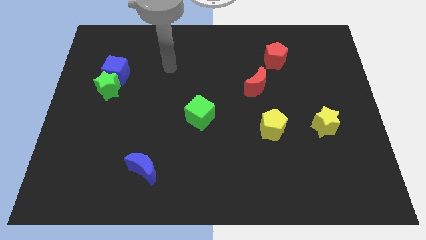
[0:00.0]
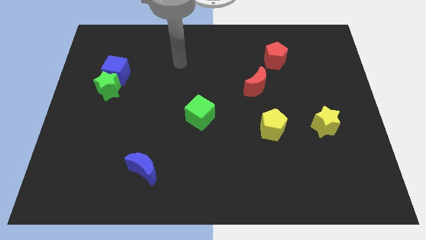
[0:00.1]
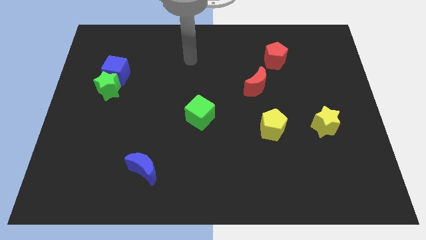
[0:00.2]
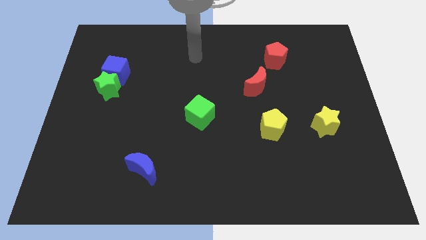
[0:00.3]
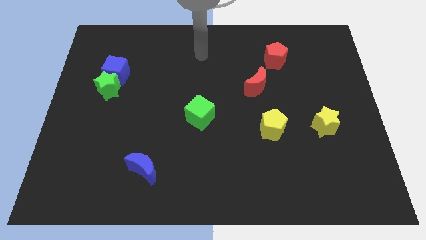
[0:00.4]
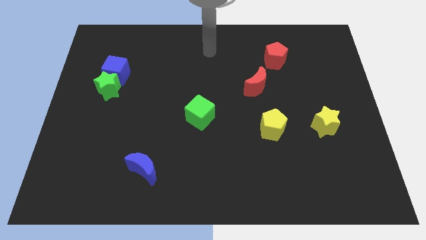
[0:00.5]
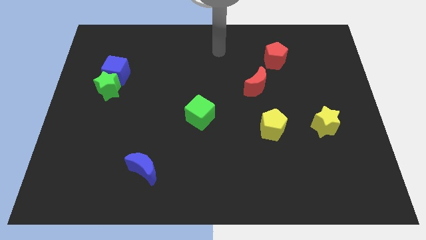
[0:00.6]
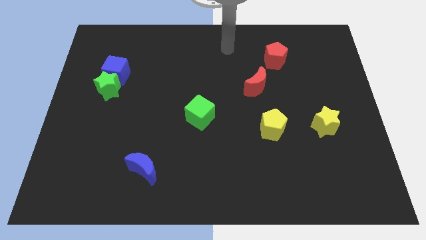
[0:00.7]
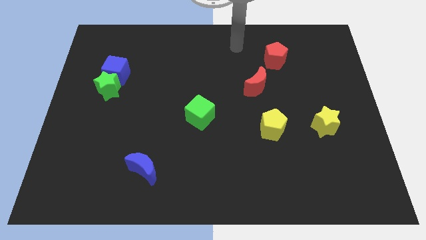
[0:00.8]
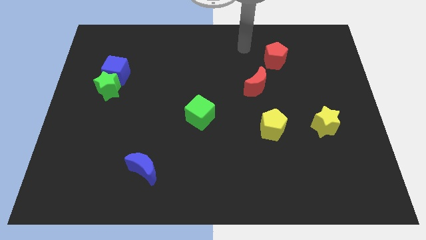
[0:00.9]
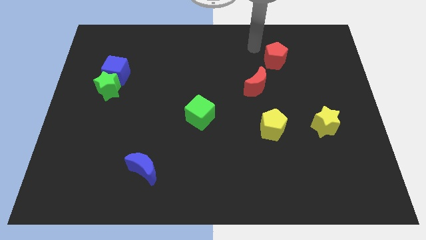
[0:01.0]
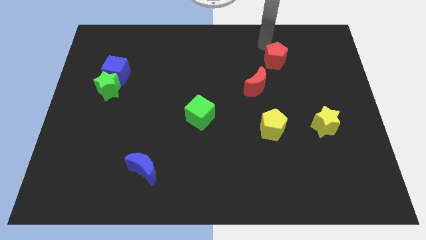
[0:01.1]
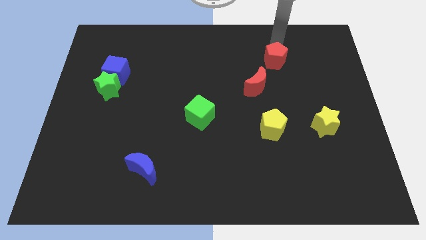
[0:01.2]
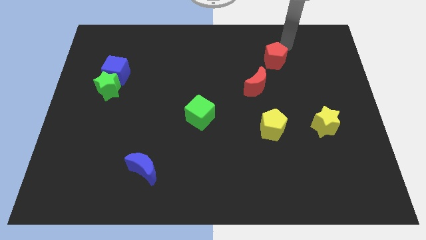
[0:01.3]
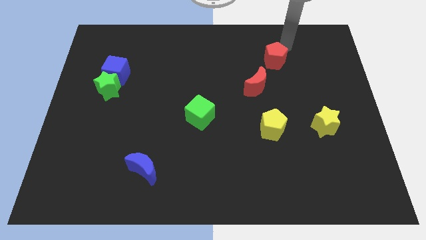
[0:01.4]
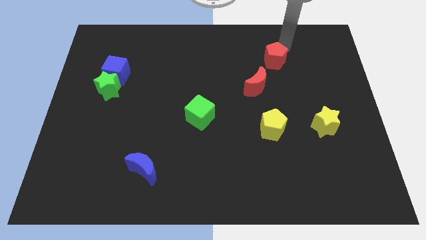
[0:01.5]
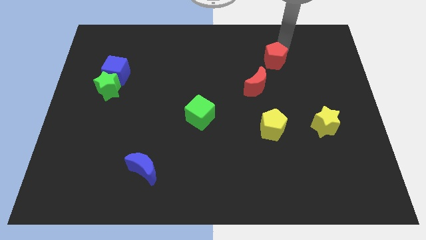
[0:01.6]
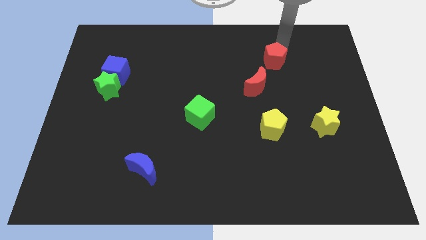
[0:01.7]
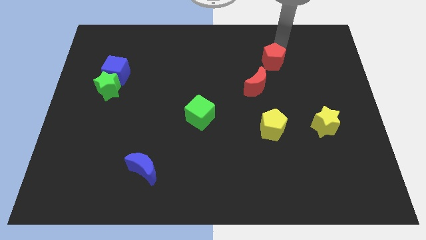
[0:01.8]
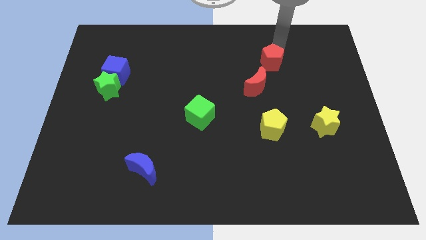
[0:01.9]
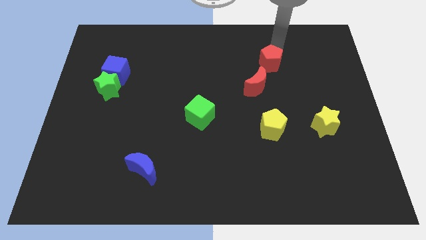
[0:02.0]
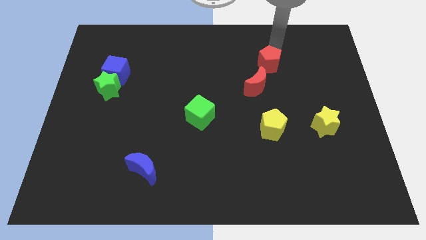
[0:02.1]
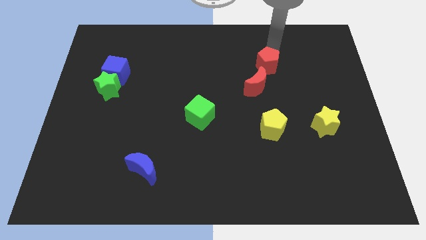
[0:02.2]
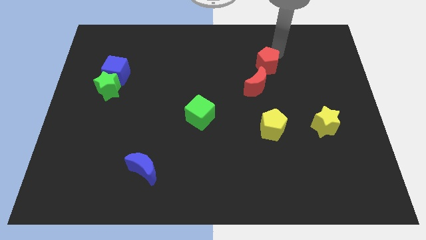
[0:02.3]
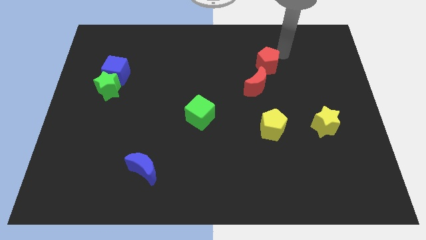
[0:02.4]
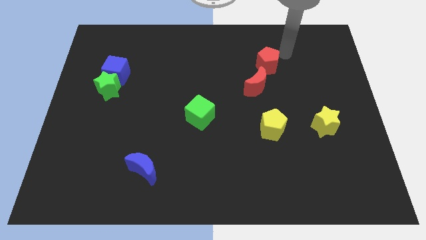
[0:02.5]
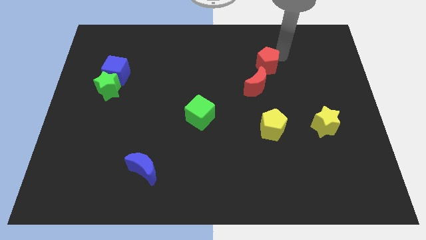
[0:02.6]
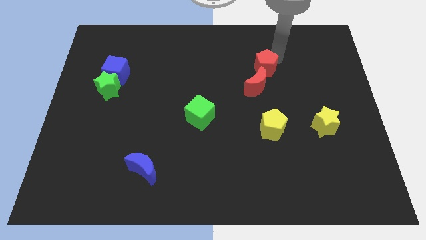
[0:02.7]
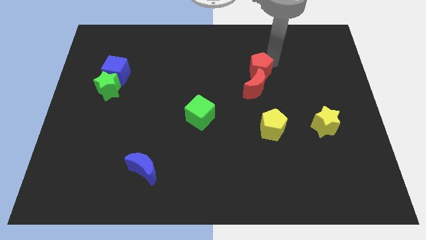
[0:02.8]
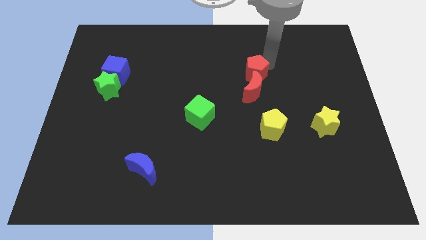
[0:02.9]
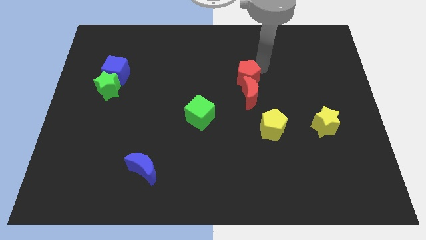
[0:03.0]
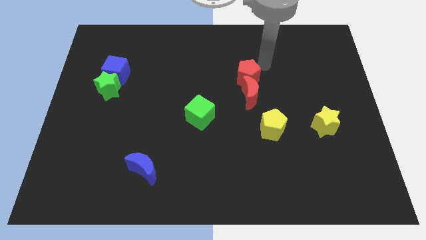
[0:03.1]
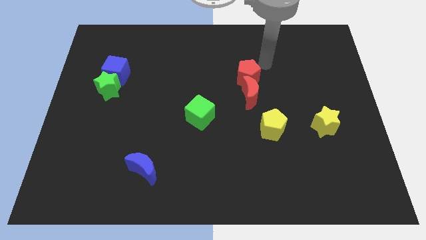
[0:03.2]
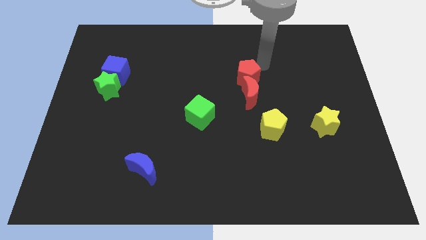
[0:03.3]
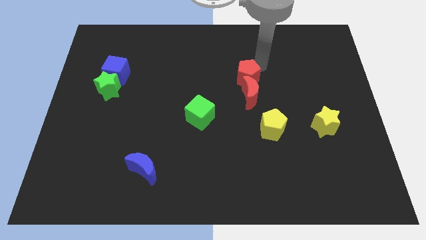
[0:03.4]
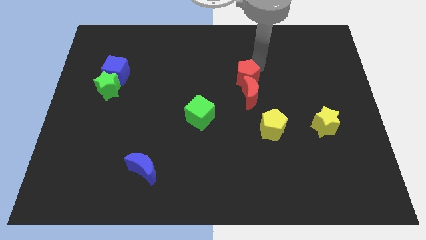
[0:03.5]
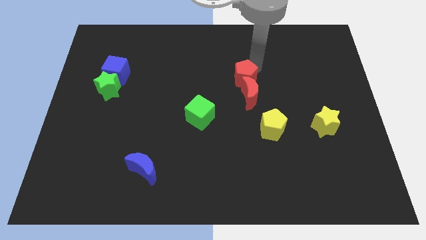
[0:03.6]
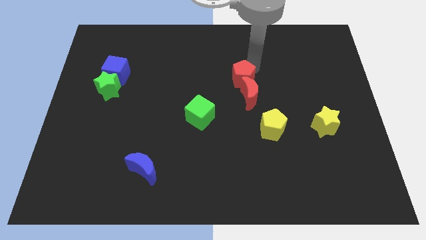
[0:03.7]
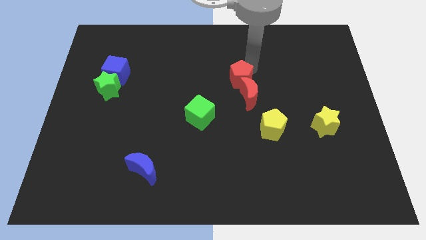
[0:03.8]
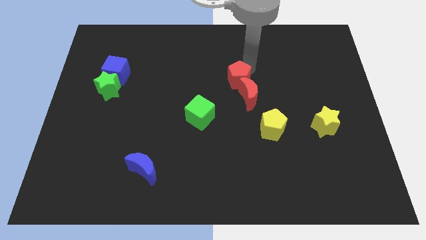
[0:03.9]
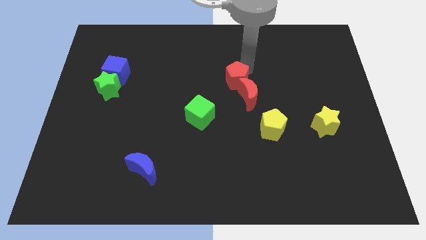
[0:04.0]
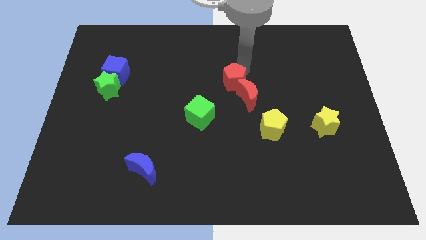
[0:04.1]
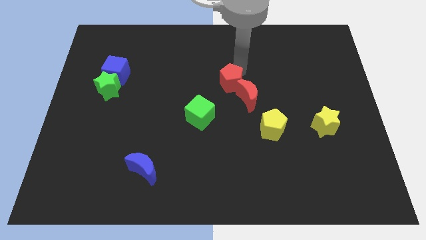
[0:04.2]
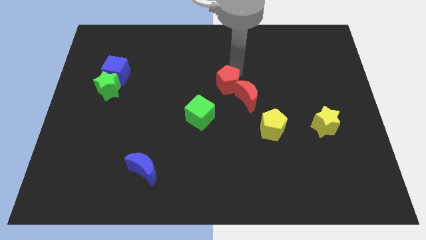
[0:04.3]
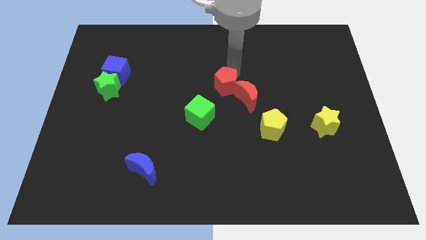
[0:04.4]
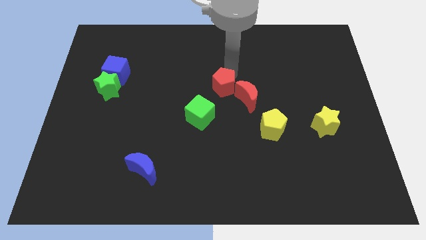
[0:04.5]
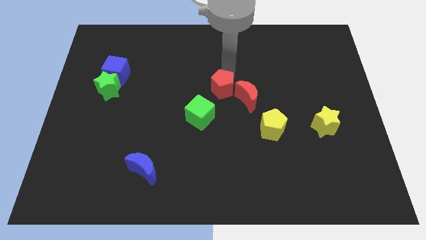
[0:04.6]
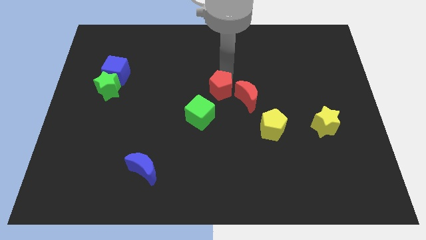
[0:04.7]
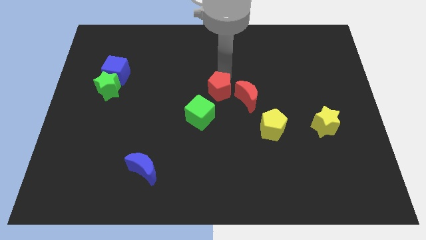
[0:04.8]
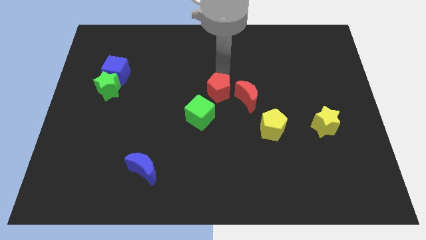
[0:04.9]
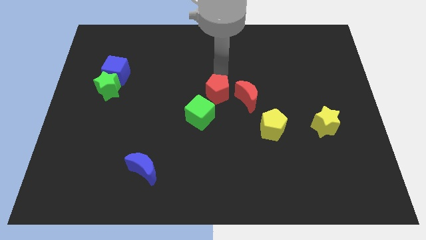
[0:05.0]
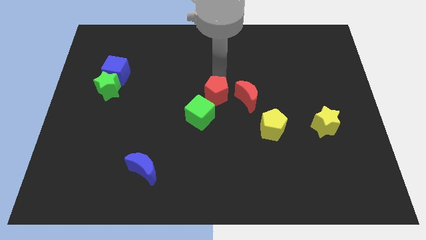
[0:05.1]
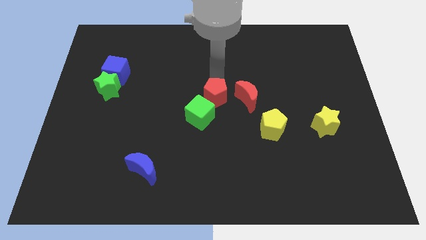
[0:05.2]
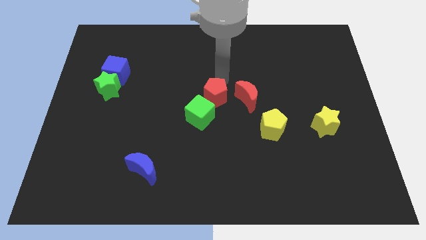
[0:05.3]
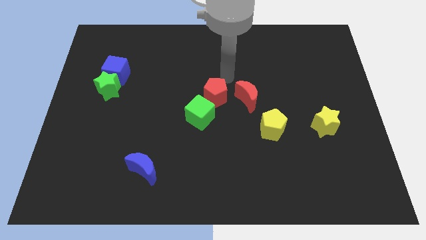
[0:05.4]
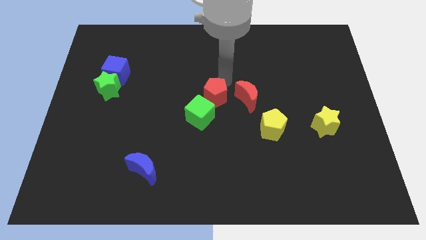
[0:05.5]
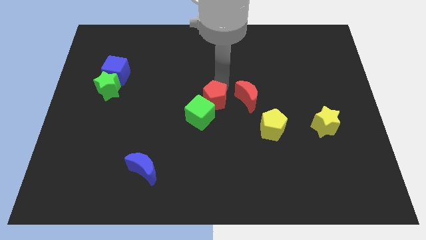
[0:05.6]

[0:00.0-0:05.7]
push the red pentagon to the green cube

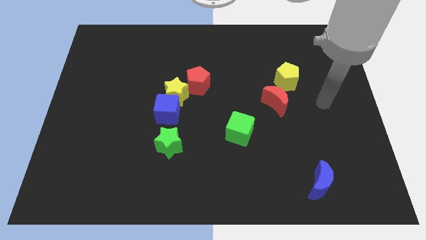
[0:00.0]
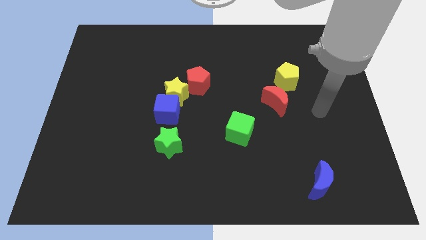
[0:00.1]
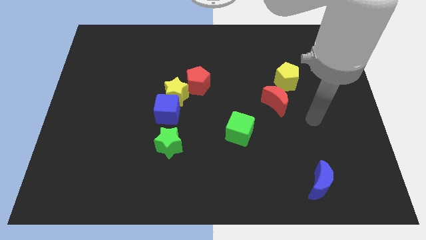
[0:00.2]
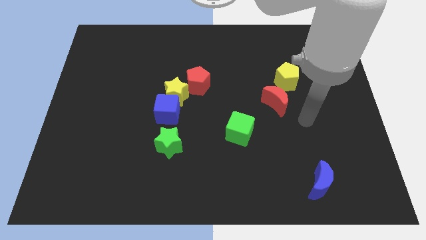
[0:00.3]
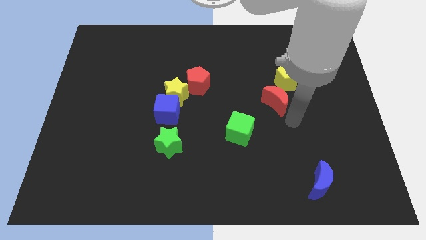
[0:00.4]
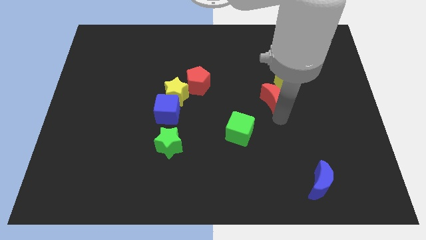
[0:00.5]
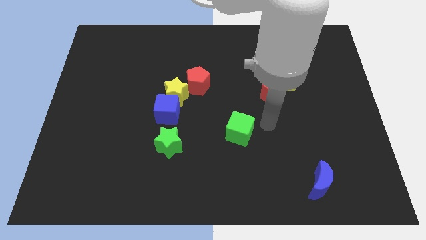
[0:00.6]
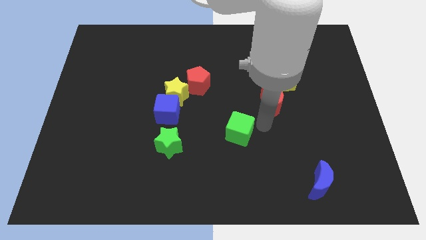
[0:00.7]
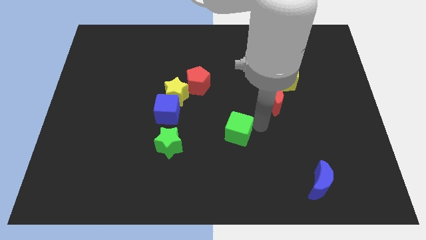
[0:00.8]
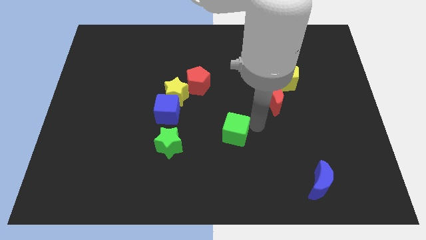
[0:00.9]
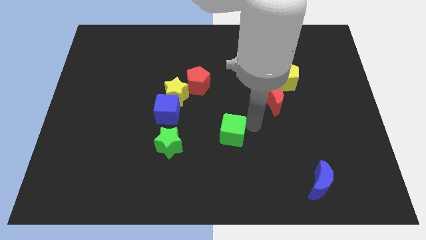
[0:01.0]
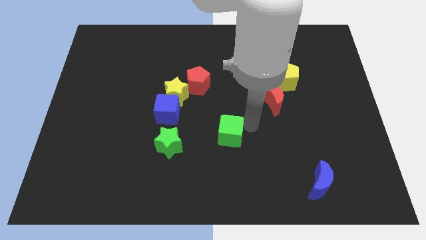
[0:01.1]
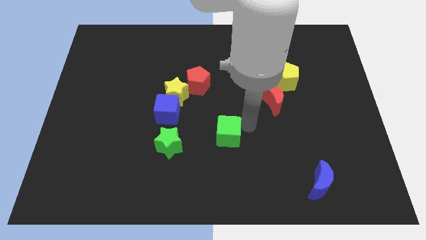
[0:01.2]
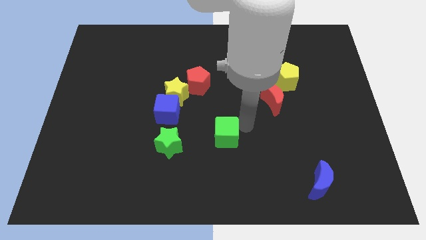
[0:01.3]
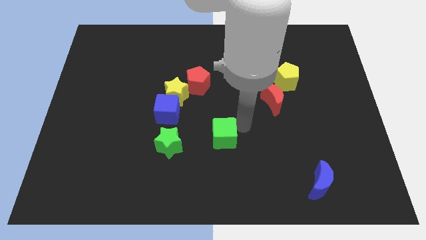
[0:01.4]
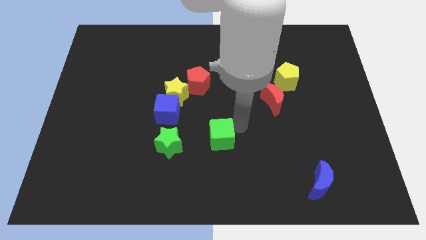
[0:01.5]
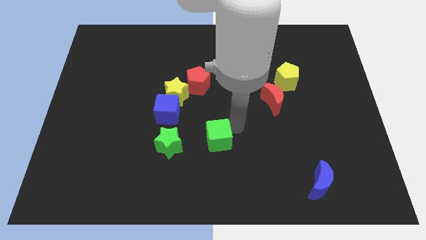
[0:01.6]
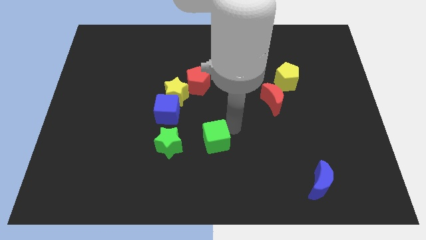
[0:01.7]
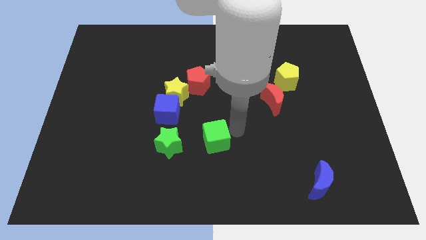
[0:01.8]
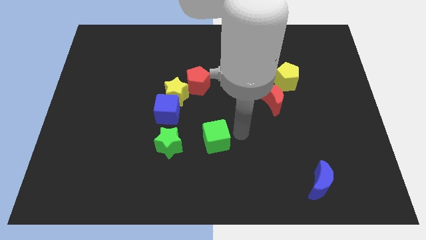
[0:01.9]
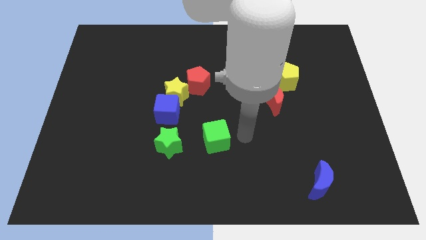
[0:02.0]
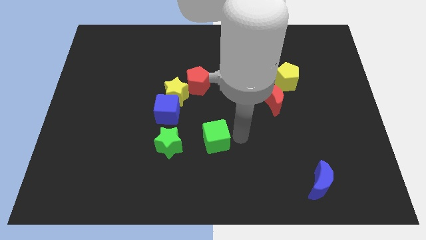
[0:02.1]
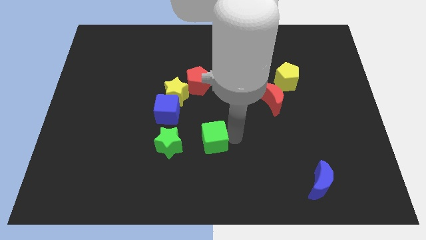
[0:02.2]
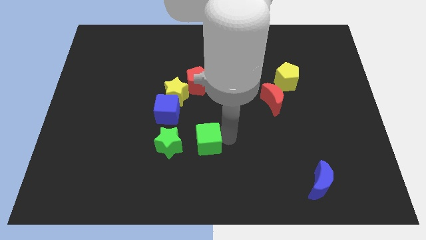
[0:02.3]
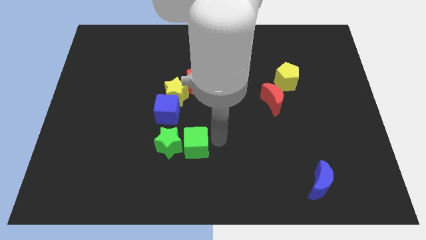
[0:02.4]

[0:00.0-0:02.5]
slide the green cube towards the green star
